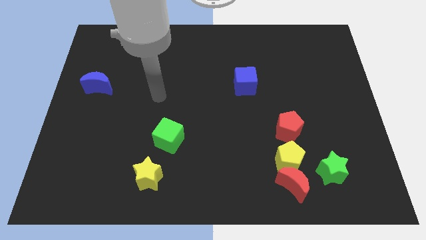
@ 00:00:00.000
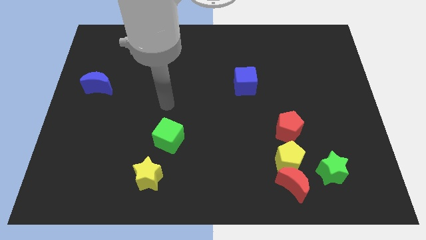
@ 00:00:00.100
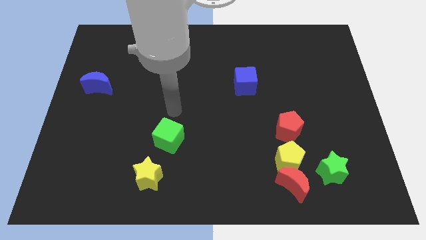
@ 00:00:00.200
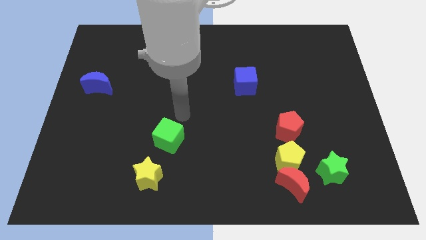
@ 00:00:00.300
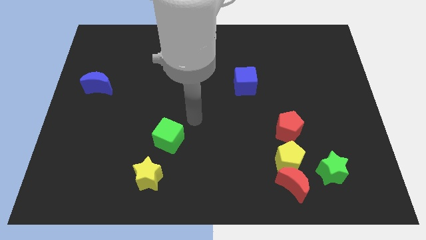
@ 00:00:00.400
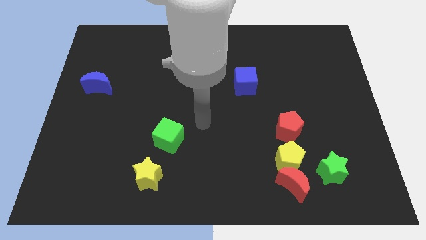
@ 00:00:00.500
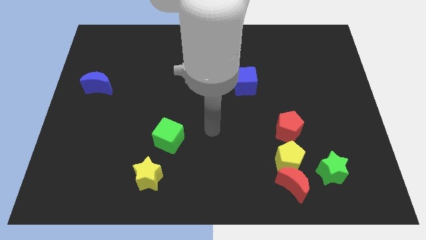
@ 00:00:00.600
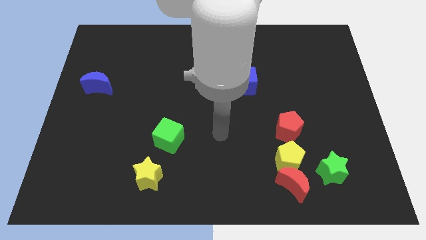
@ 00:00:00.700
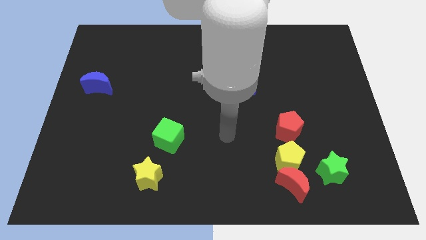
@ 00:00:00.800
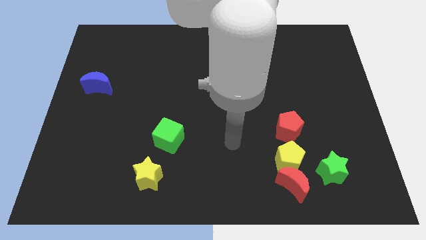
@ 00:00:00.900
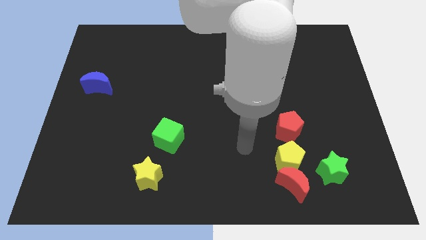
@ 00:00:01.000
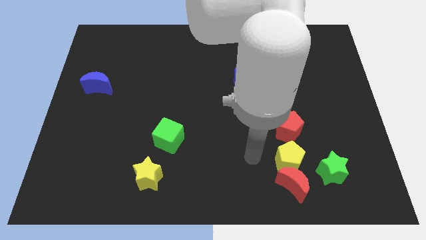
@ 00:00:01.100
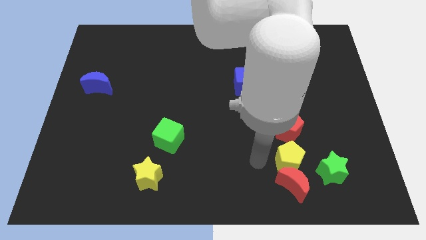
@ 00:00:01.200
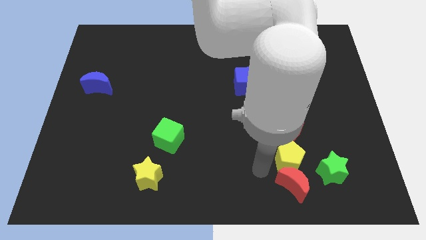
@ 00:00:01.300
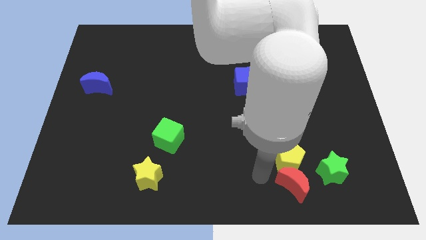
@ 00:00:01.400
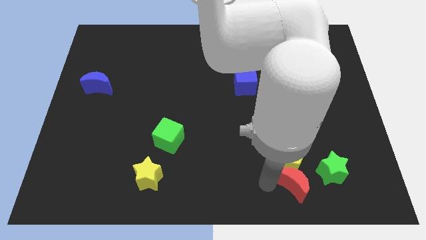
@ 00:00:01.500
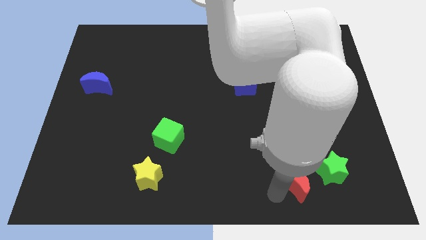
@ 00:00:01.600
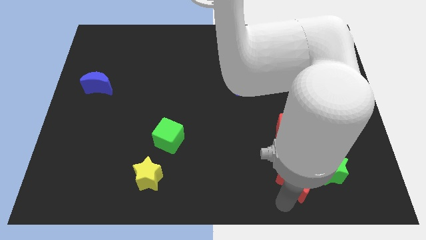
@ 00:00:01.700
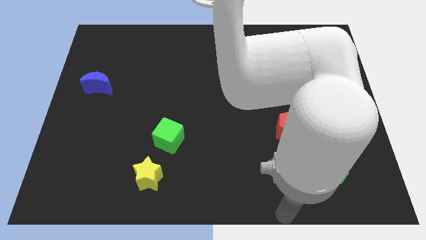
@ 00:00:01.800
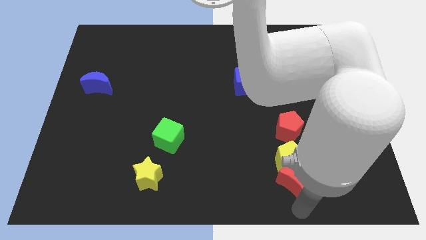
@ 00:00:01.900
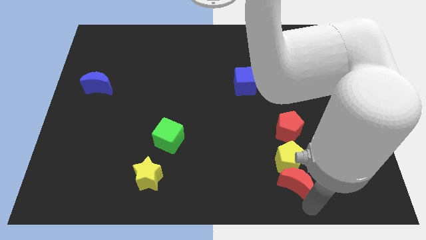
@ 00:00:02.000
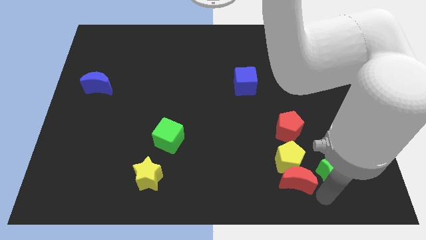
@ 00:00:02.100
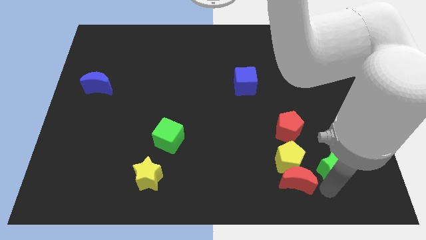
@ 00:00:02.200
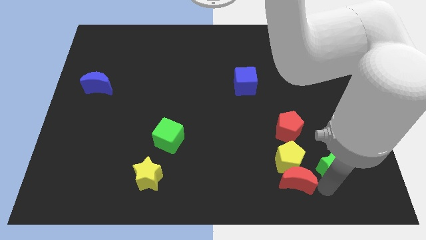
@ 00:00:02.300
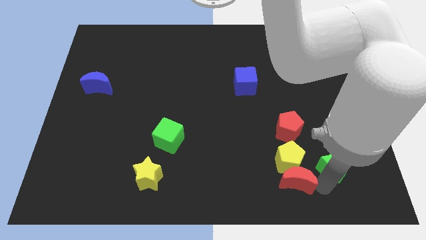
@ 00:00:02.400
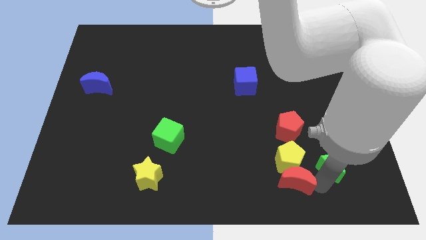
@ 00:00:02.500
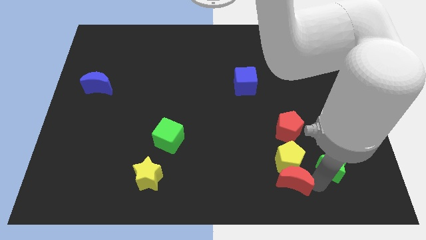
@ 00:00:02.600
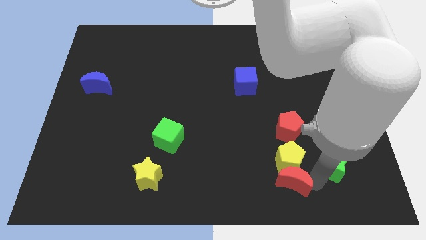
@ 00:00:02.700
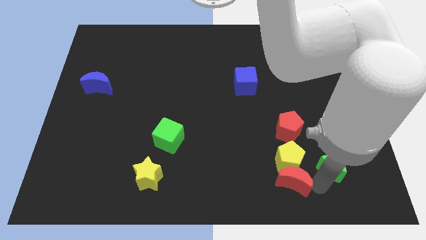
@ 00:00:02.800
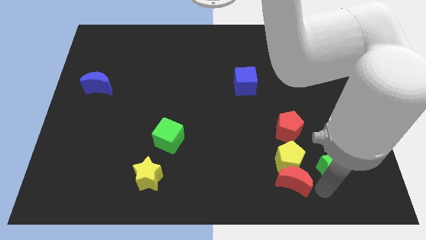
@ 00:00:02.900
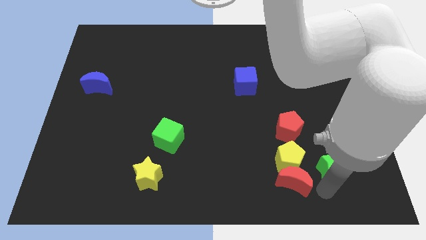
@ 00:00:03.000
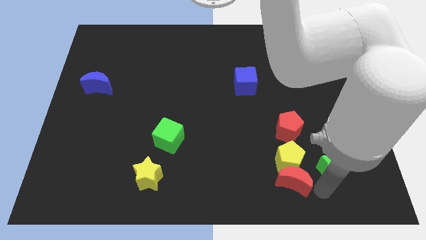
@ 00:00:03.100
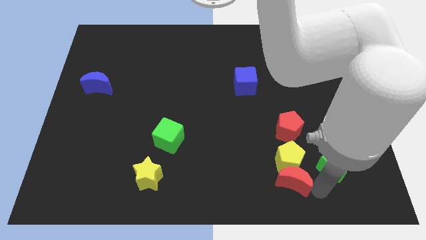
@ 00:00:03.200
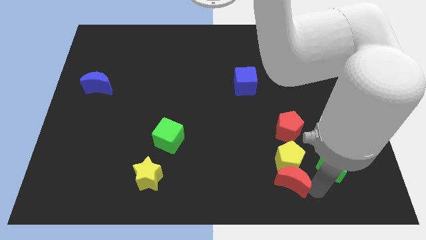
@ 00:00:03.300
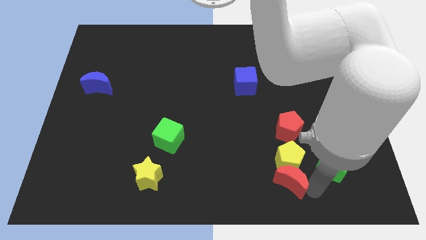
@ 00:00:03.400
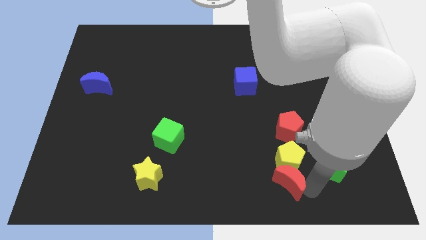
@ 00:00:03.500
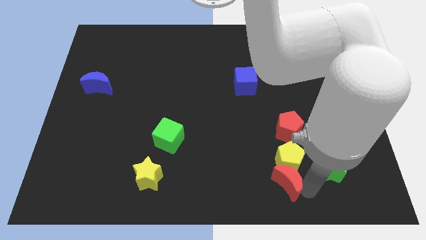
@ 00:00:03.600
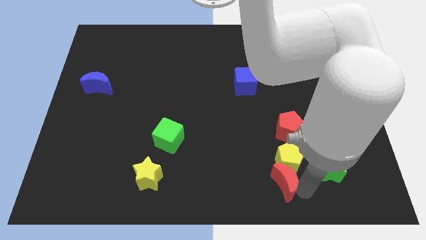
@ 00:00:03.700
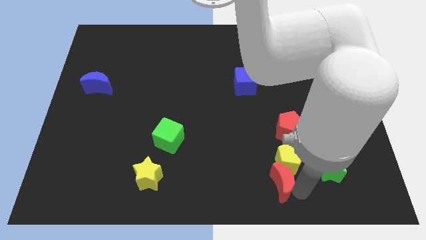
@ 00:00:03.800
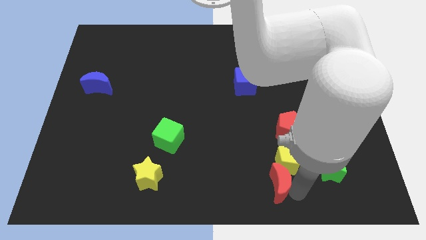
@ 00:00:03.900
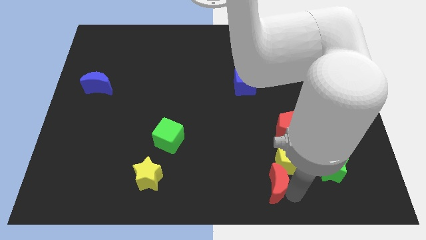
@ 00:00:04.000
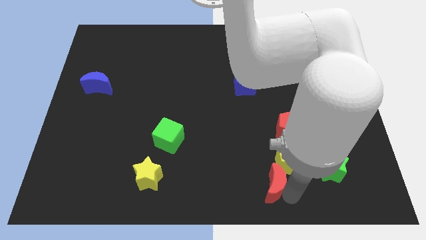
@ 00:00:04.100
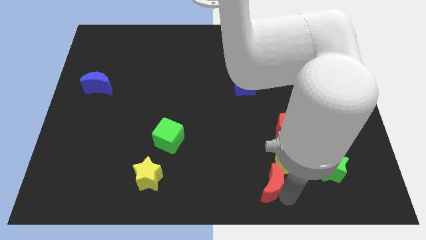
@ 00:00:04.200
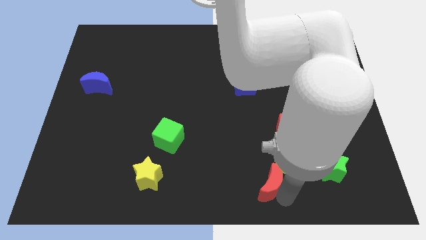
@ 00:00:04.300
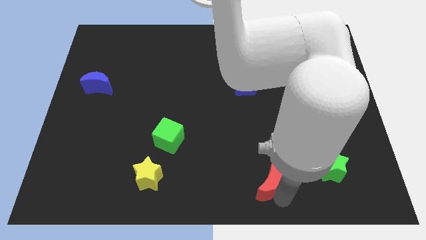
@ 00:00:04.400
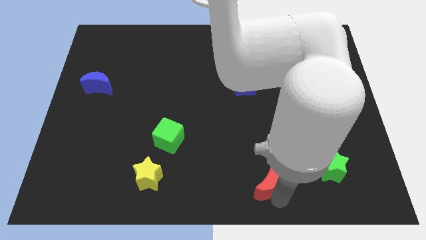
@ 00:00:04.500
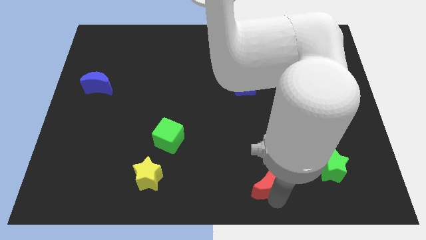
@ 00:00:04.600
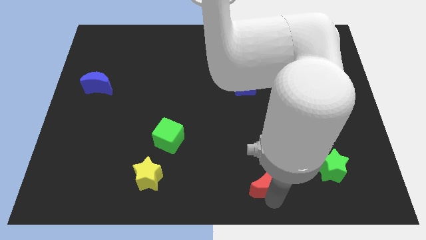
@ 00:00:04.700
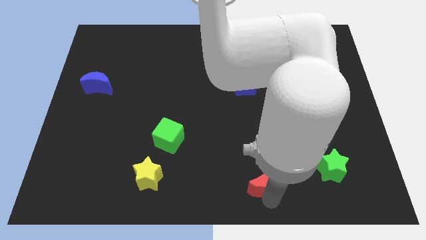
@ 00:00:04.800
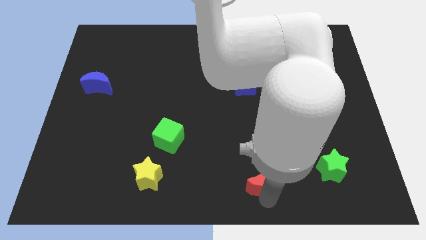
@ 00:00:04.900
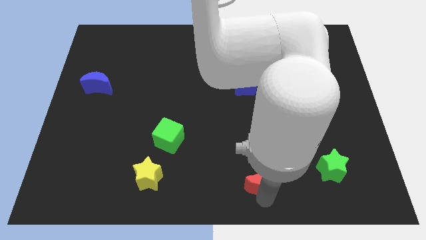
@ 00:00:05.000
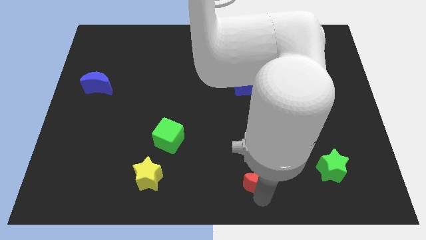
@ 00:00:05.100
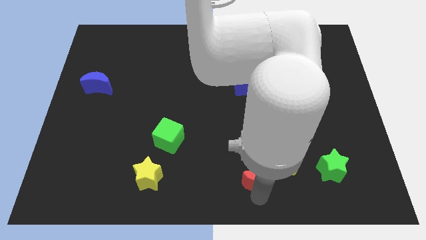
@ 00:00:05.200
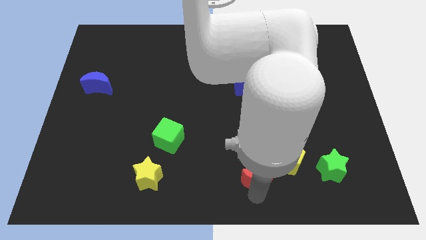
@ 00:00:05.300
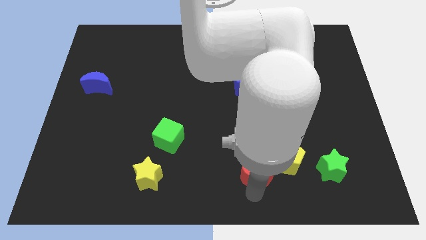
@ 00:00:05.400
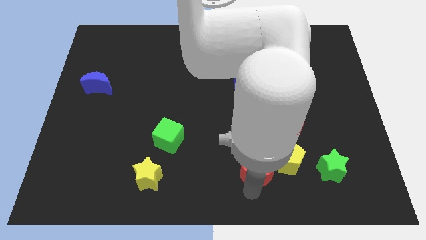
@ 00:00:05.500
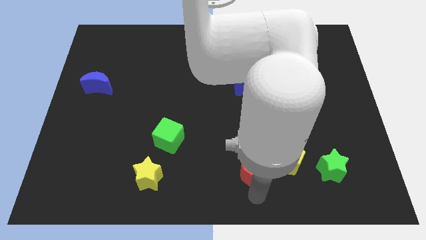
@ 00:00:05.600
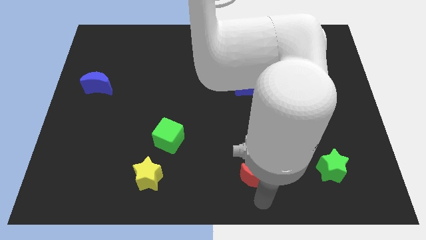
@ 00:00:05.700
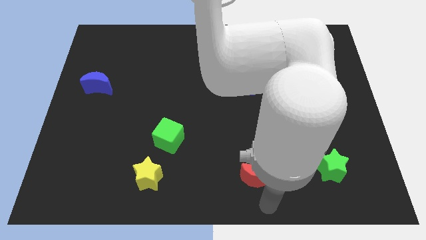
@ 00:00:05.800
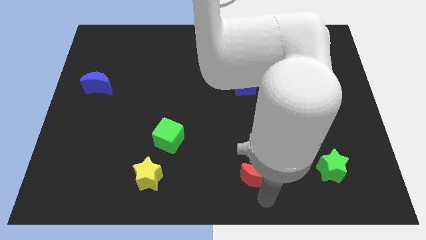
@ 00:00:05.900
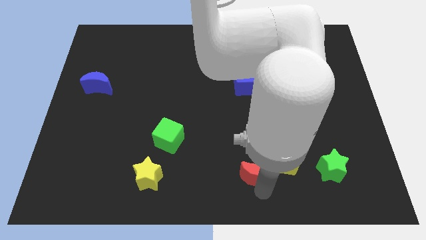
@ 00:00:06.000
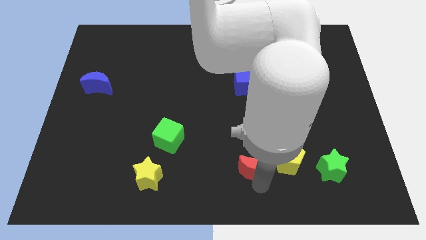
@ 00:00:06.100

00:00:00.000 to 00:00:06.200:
slightly move the red moon upwards and left diagonally

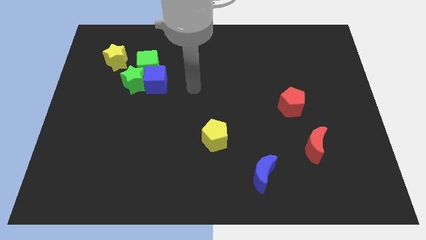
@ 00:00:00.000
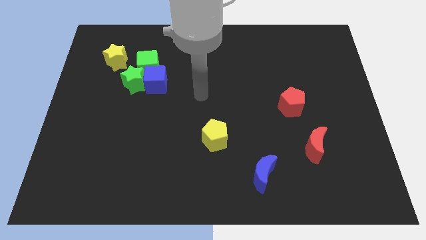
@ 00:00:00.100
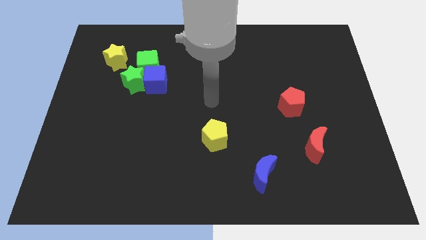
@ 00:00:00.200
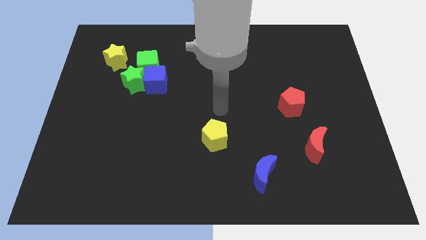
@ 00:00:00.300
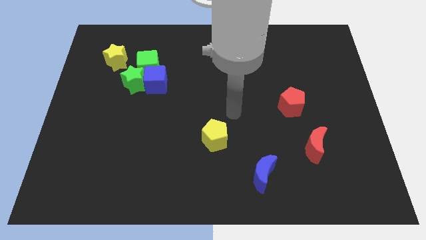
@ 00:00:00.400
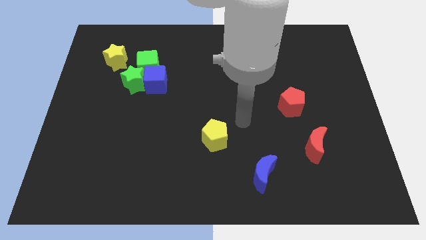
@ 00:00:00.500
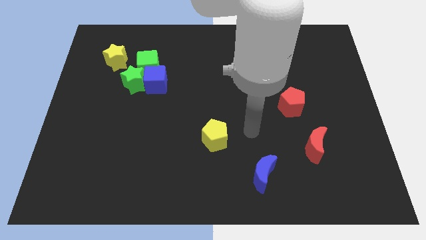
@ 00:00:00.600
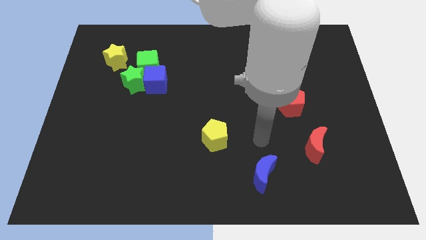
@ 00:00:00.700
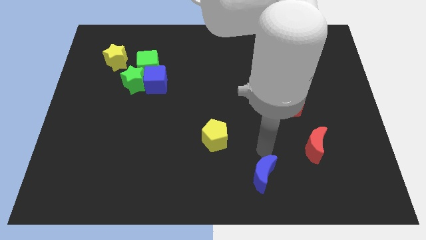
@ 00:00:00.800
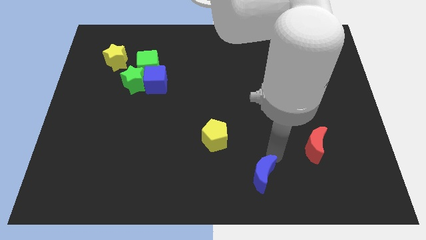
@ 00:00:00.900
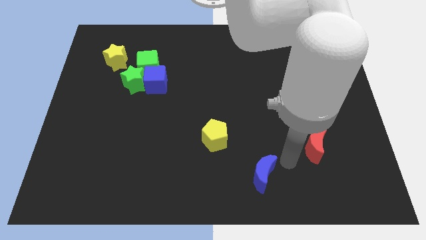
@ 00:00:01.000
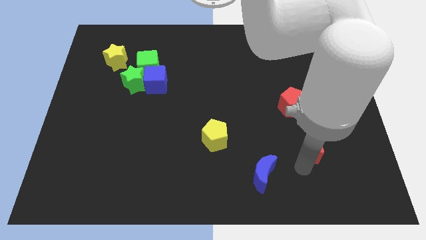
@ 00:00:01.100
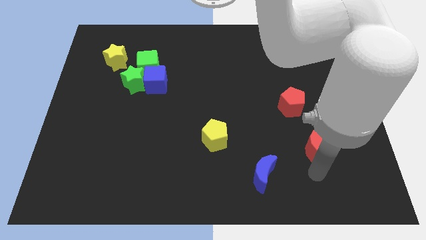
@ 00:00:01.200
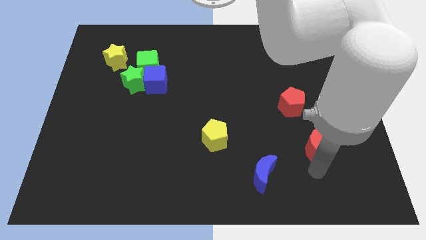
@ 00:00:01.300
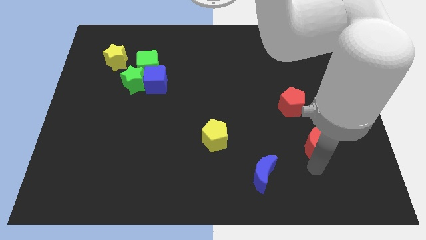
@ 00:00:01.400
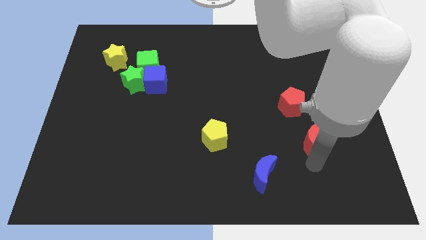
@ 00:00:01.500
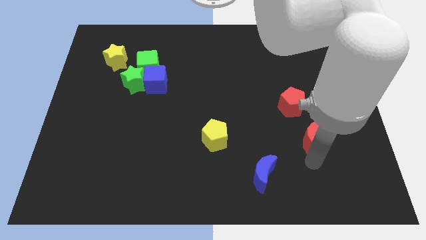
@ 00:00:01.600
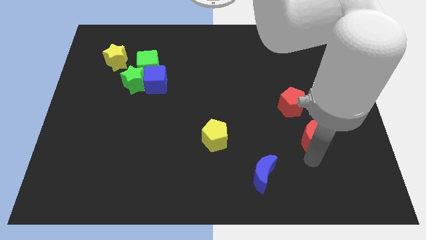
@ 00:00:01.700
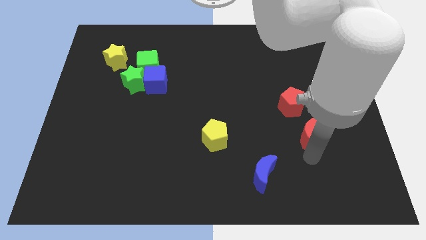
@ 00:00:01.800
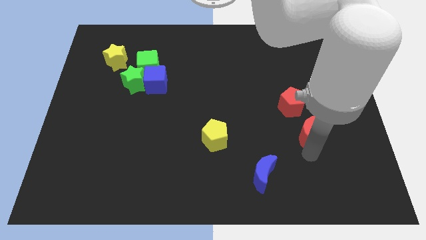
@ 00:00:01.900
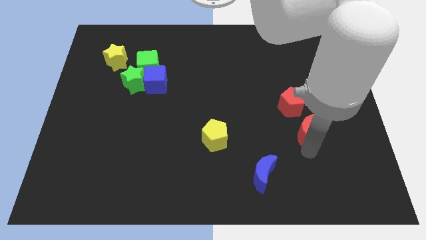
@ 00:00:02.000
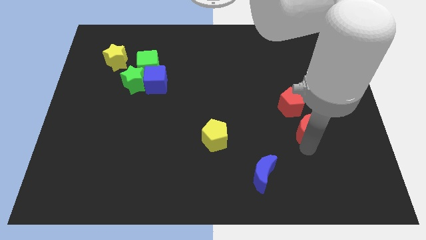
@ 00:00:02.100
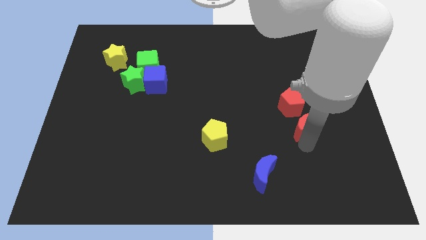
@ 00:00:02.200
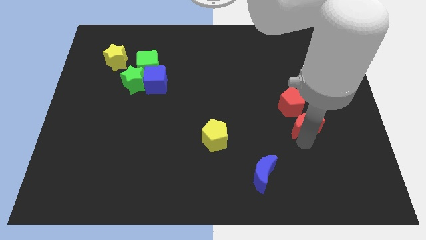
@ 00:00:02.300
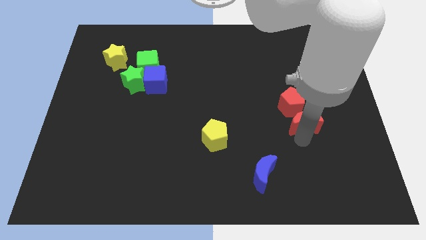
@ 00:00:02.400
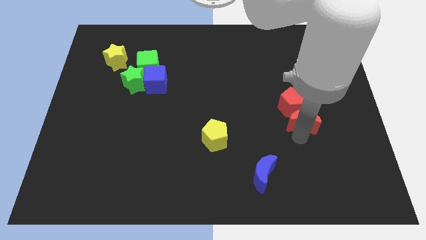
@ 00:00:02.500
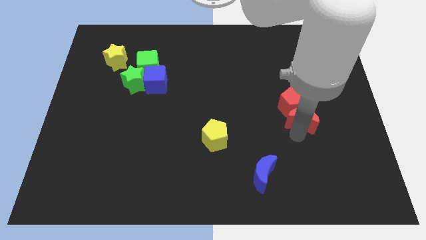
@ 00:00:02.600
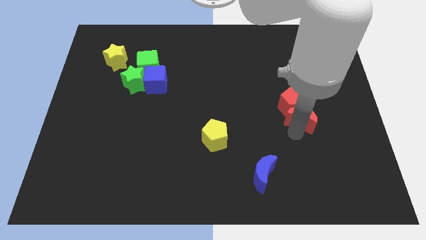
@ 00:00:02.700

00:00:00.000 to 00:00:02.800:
slightly move the red moon up
